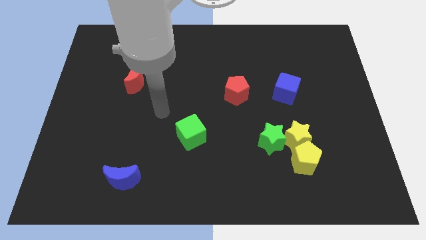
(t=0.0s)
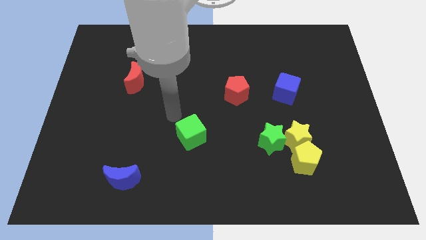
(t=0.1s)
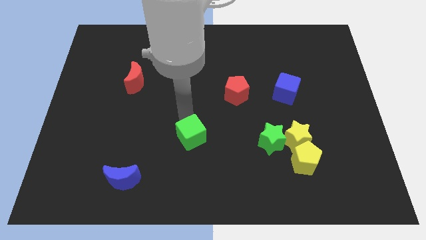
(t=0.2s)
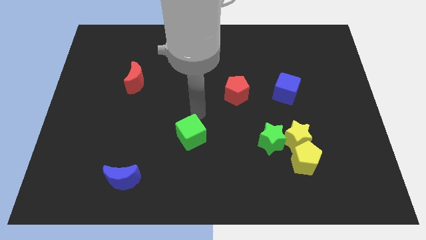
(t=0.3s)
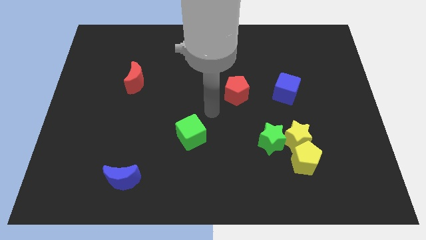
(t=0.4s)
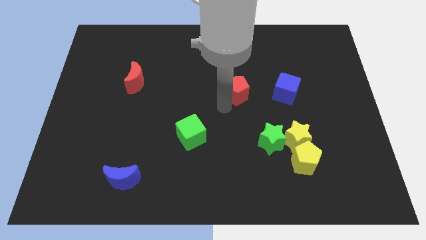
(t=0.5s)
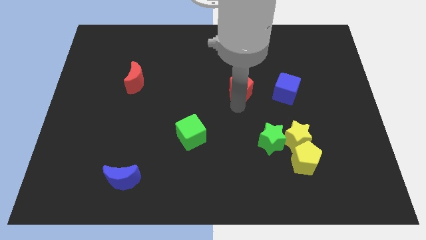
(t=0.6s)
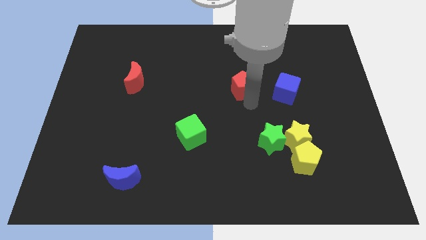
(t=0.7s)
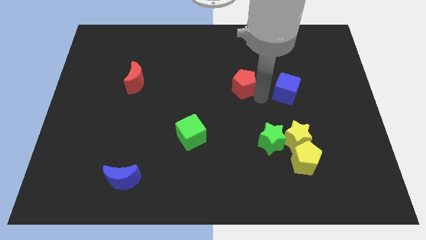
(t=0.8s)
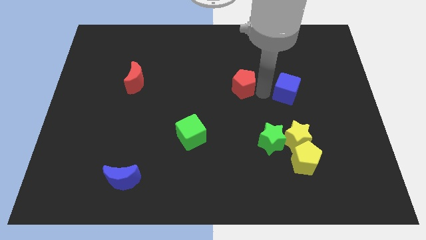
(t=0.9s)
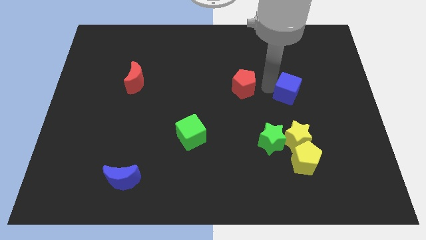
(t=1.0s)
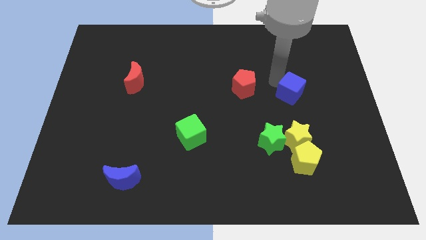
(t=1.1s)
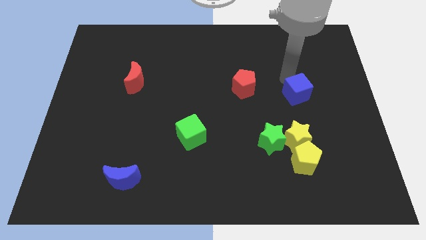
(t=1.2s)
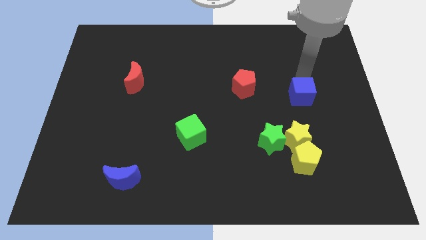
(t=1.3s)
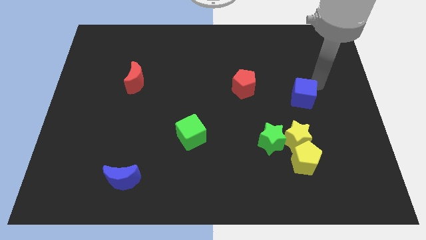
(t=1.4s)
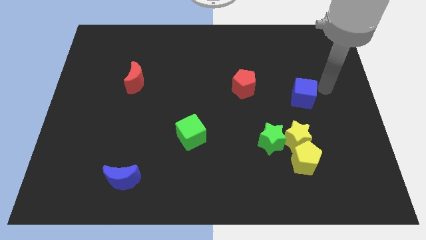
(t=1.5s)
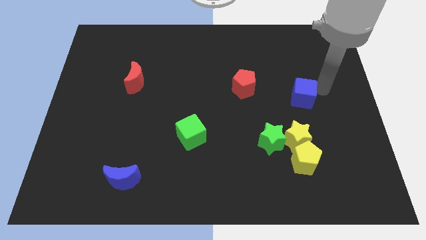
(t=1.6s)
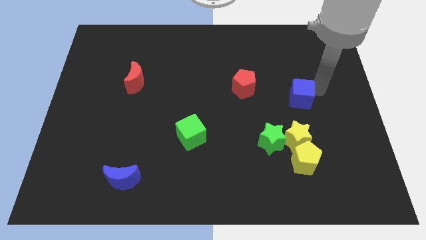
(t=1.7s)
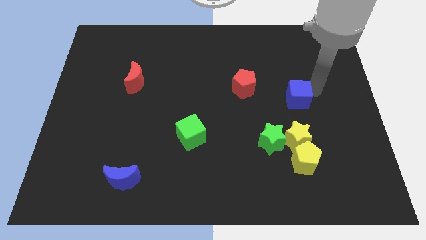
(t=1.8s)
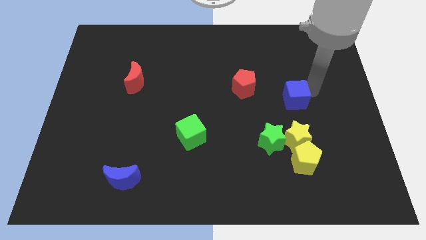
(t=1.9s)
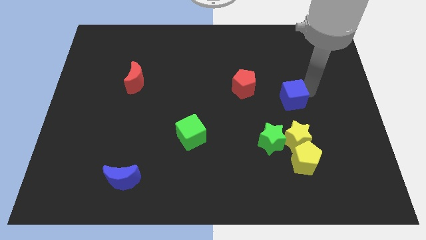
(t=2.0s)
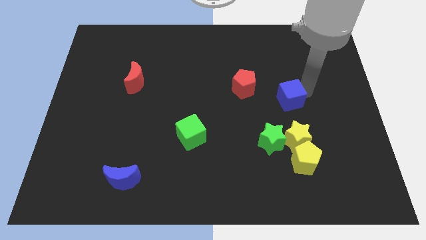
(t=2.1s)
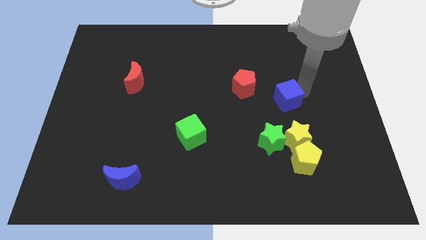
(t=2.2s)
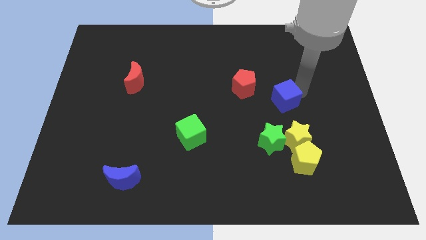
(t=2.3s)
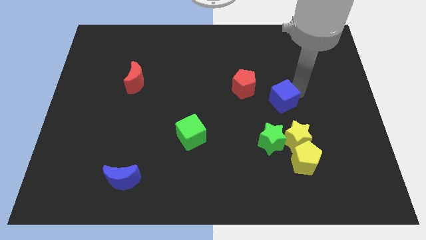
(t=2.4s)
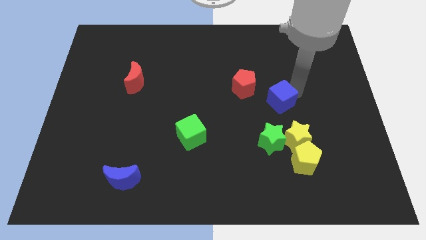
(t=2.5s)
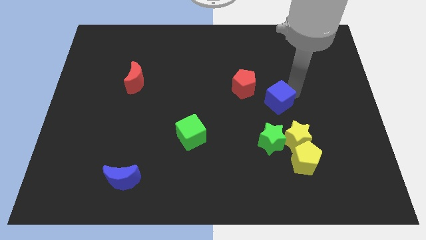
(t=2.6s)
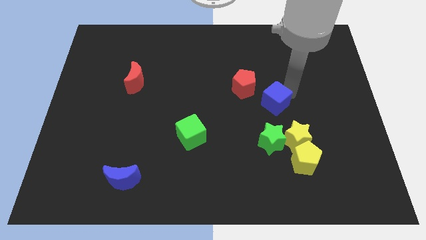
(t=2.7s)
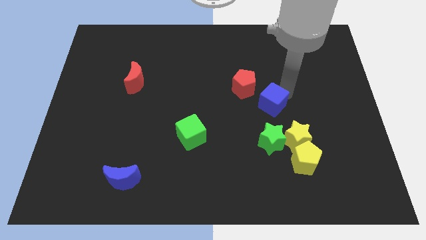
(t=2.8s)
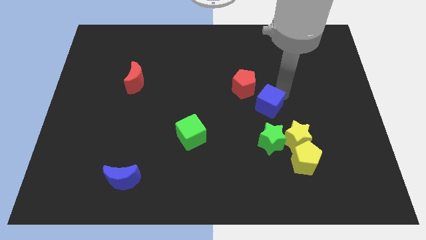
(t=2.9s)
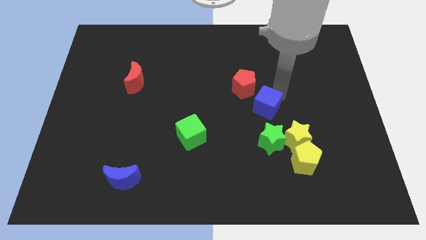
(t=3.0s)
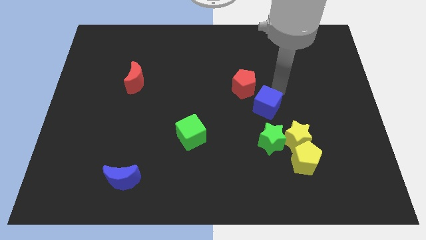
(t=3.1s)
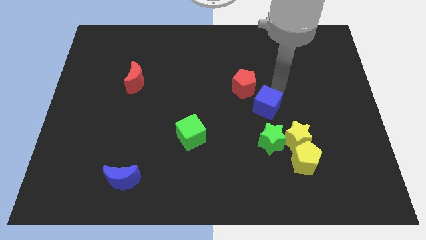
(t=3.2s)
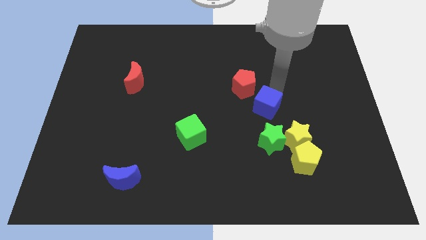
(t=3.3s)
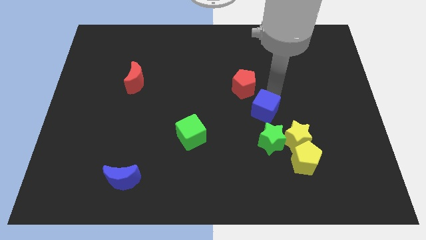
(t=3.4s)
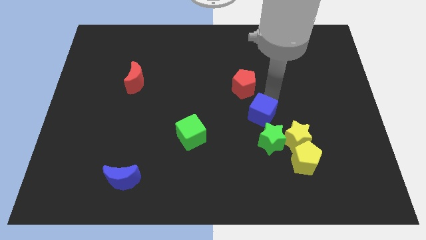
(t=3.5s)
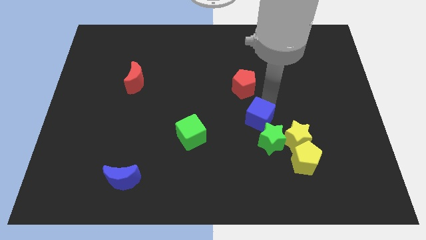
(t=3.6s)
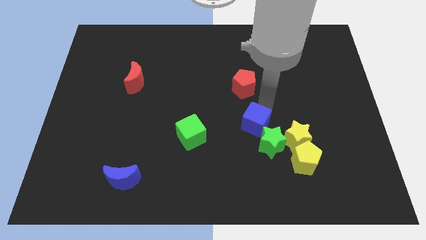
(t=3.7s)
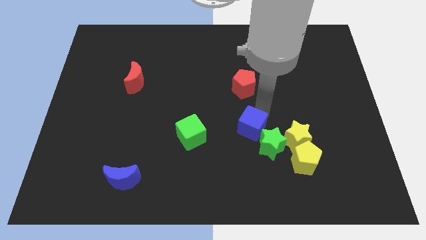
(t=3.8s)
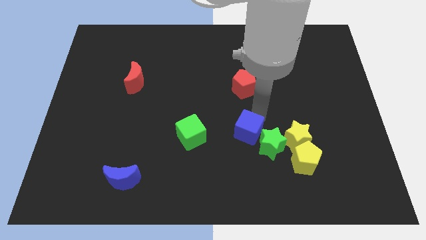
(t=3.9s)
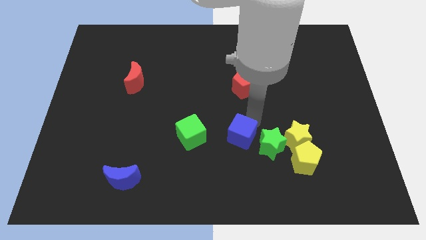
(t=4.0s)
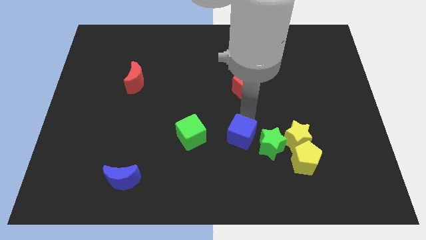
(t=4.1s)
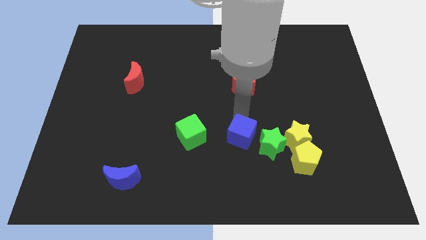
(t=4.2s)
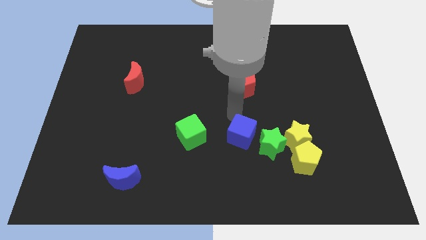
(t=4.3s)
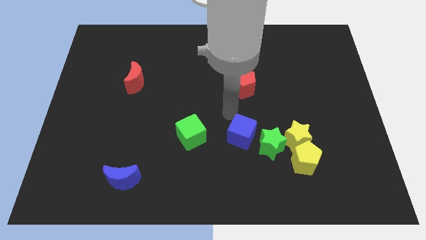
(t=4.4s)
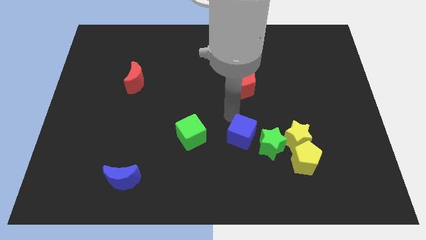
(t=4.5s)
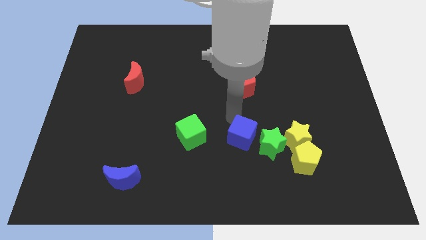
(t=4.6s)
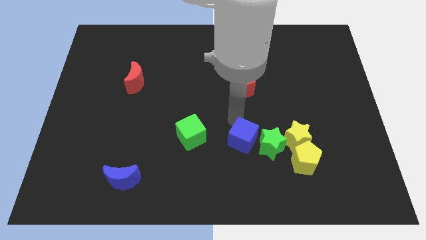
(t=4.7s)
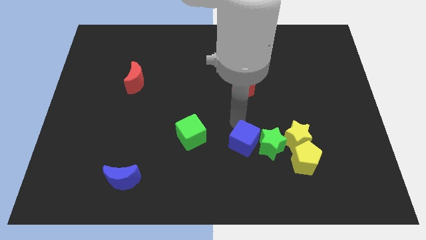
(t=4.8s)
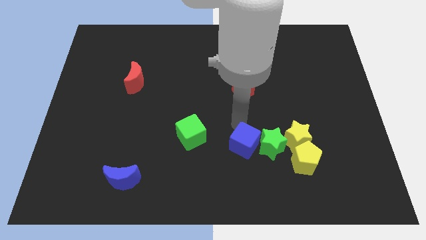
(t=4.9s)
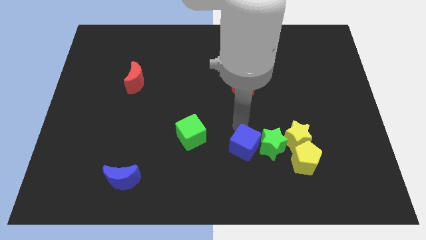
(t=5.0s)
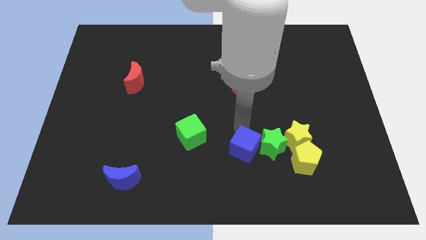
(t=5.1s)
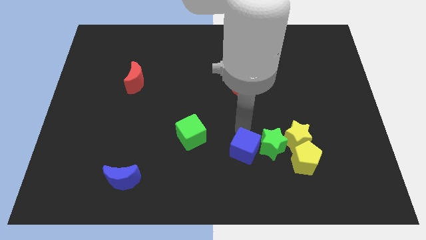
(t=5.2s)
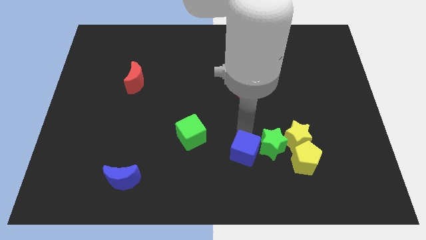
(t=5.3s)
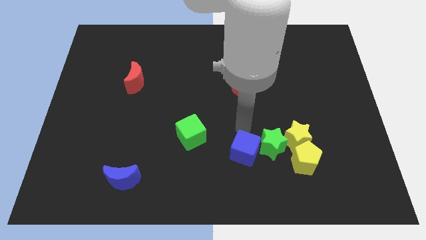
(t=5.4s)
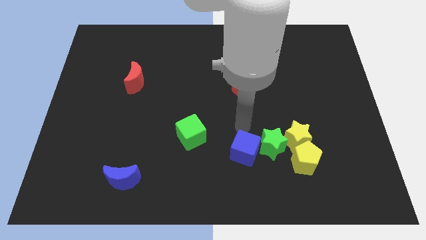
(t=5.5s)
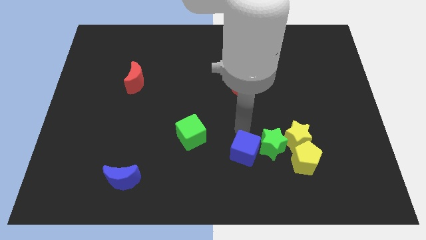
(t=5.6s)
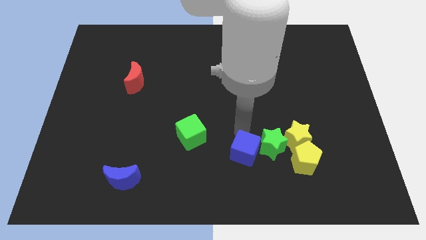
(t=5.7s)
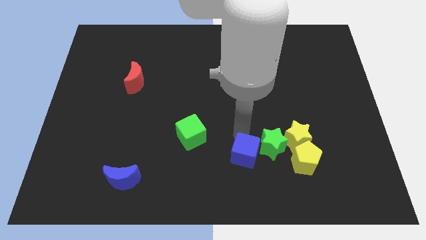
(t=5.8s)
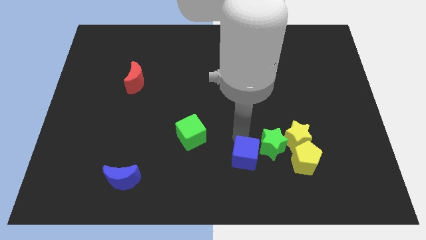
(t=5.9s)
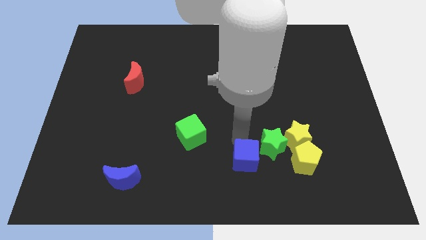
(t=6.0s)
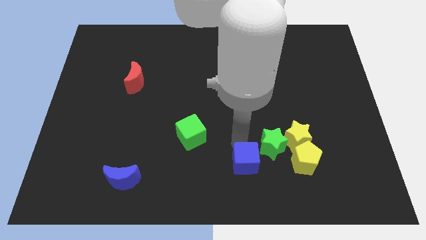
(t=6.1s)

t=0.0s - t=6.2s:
push the blue cube to the bottom side
